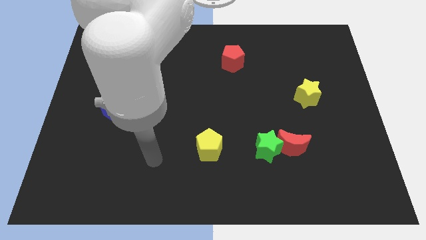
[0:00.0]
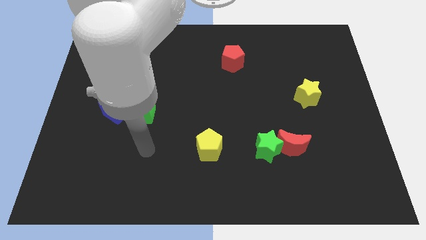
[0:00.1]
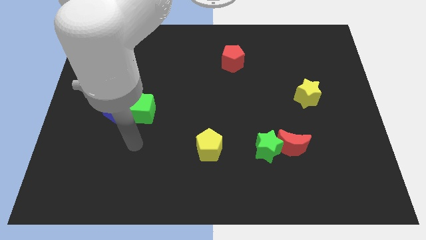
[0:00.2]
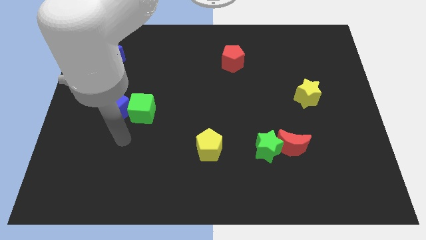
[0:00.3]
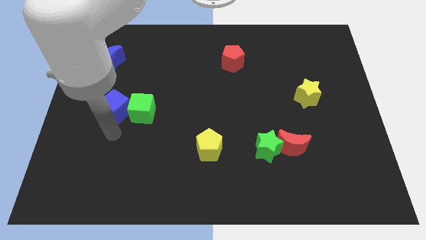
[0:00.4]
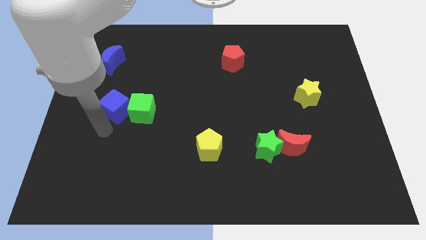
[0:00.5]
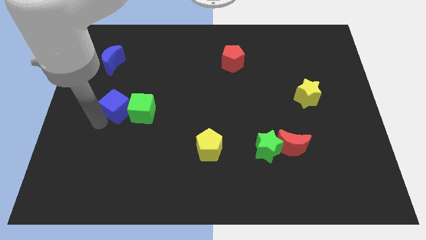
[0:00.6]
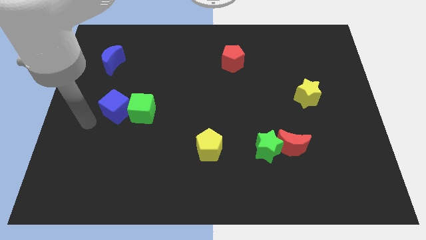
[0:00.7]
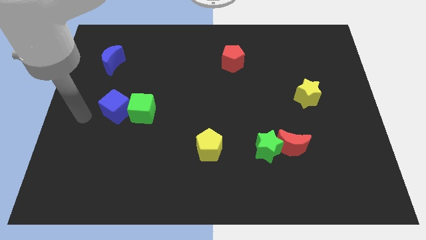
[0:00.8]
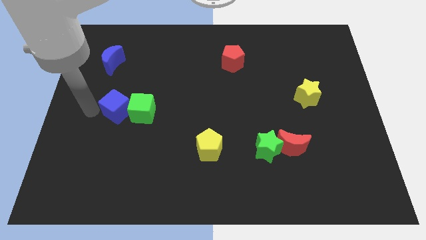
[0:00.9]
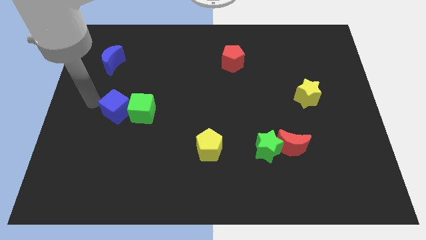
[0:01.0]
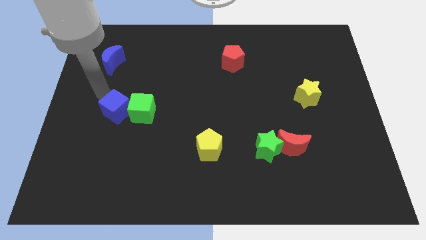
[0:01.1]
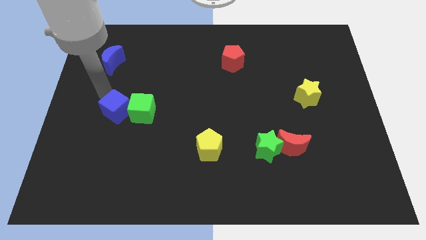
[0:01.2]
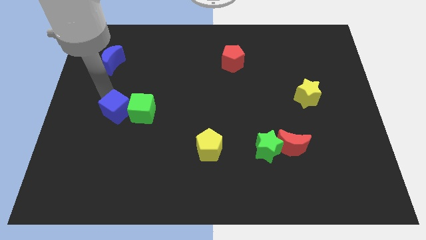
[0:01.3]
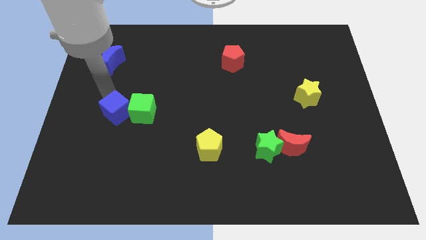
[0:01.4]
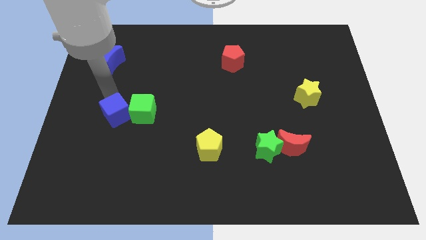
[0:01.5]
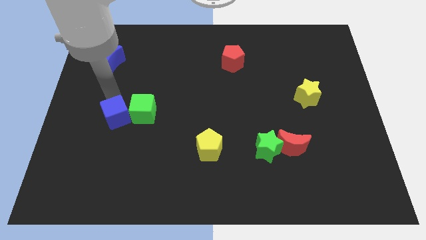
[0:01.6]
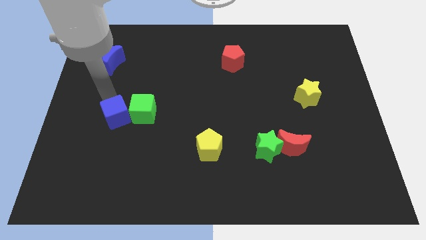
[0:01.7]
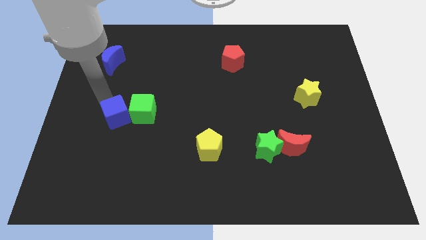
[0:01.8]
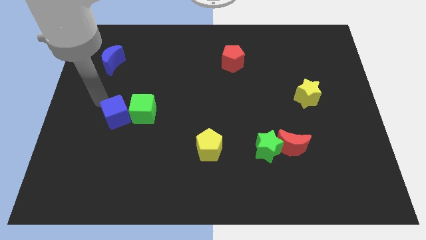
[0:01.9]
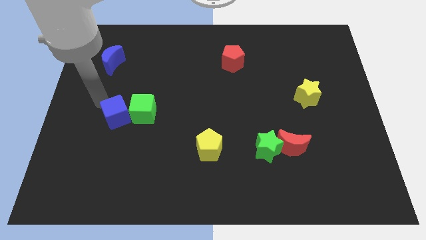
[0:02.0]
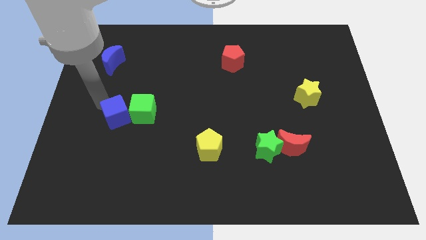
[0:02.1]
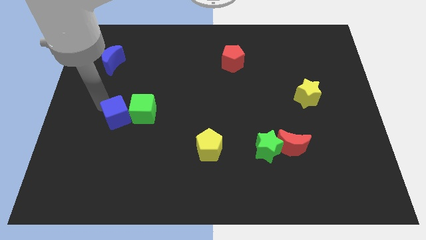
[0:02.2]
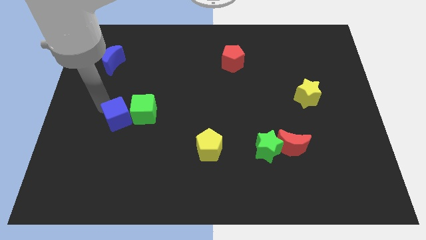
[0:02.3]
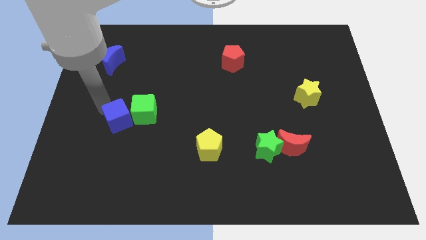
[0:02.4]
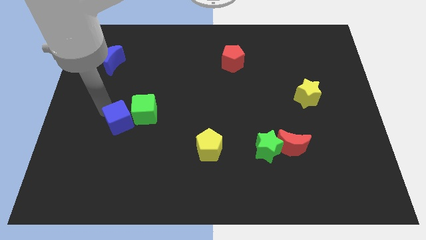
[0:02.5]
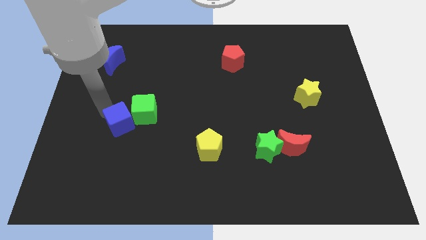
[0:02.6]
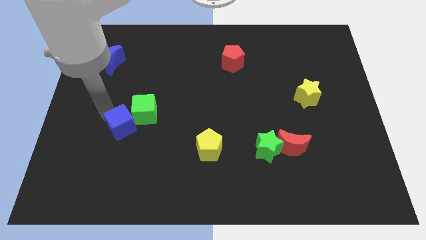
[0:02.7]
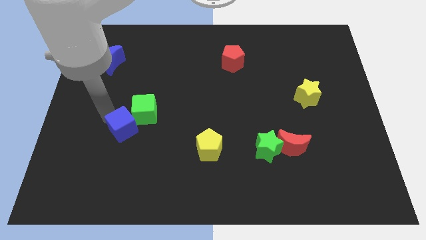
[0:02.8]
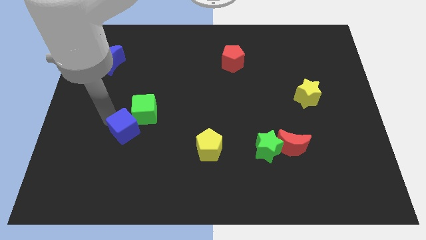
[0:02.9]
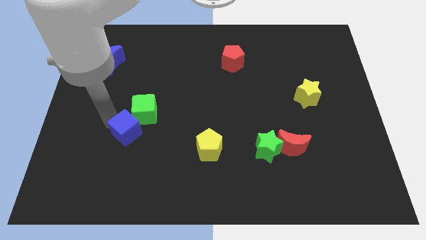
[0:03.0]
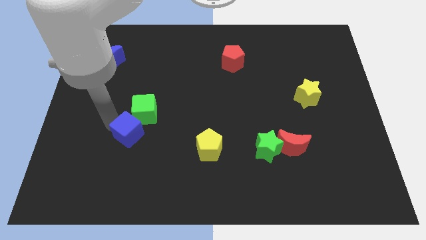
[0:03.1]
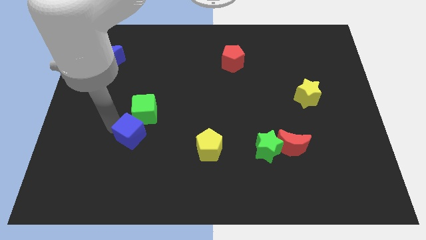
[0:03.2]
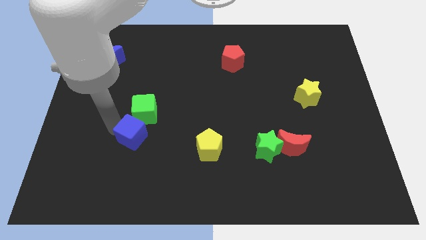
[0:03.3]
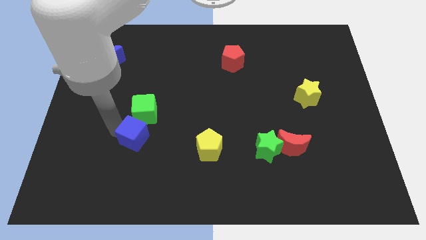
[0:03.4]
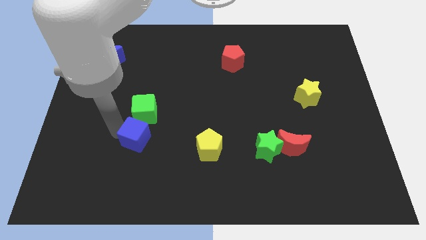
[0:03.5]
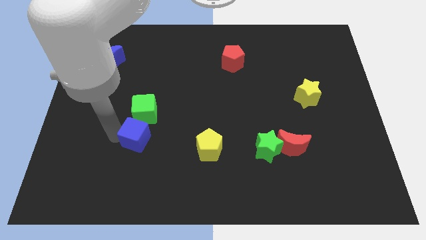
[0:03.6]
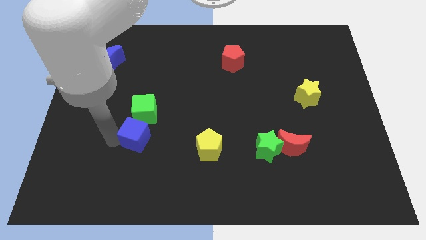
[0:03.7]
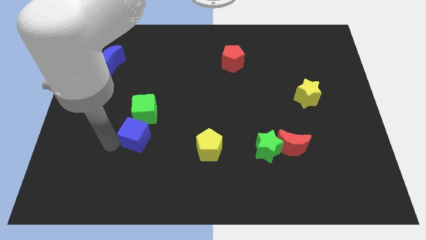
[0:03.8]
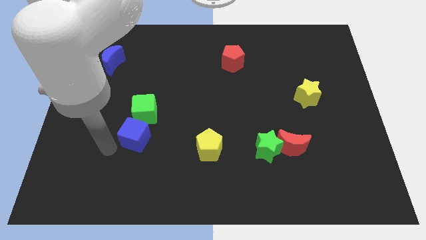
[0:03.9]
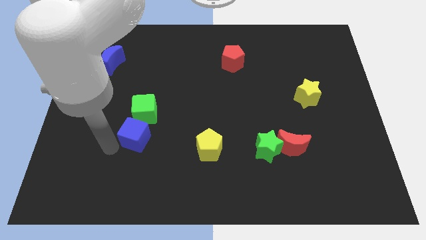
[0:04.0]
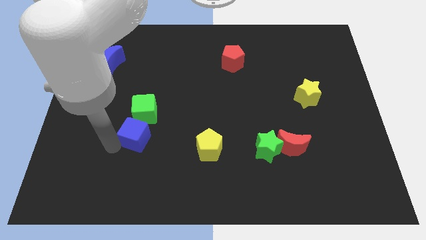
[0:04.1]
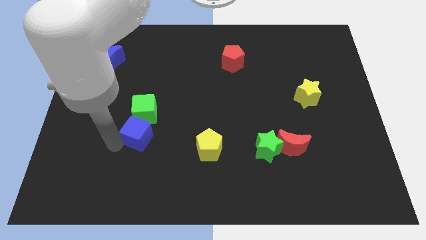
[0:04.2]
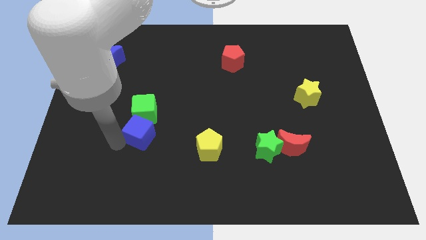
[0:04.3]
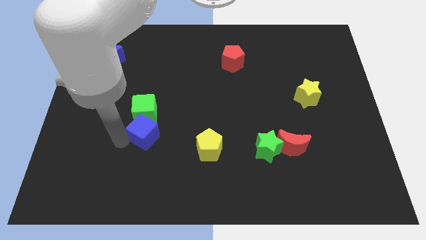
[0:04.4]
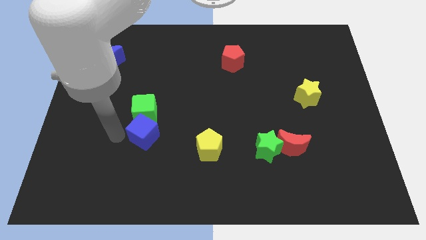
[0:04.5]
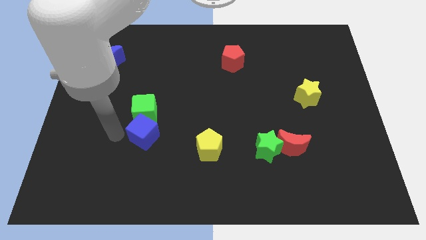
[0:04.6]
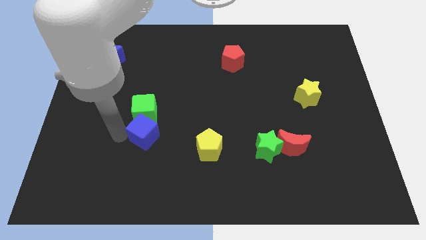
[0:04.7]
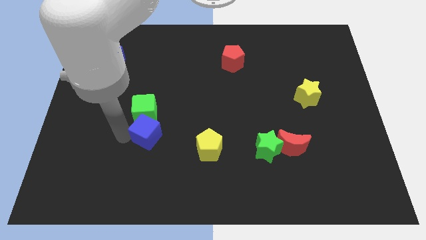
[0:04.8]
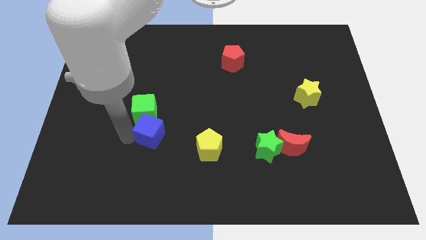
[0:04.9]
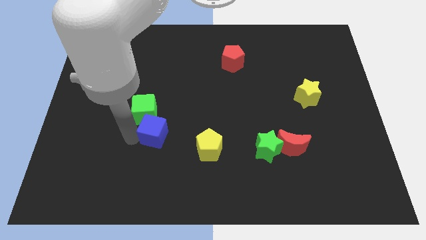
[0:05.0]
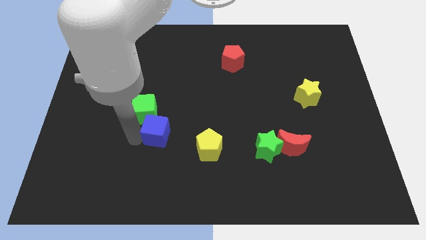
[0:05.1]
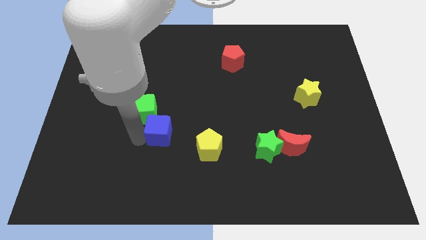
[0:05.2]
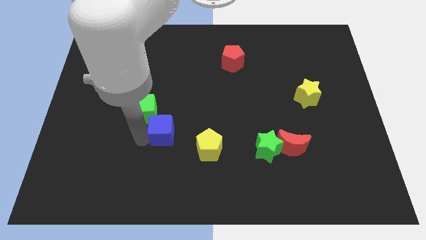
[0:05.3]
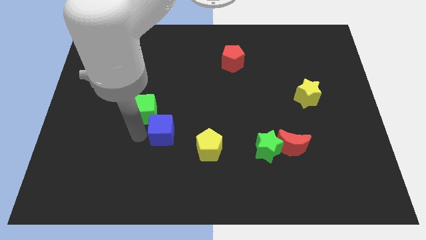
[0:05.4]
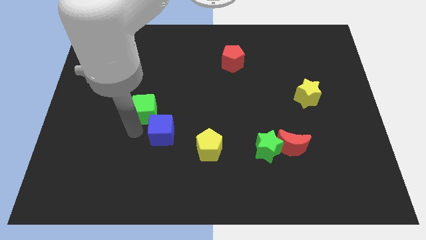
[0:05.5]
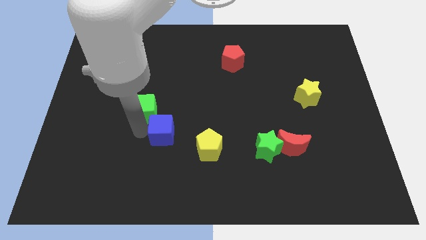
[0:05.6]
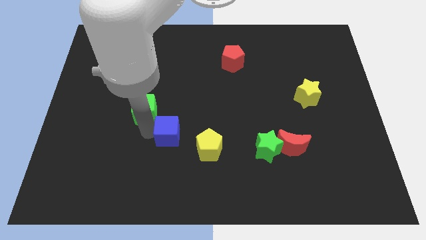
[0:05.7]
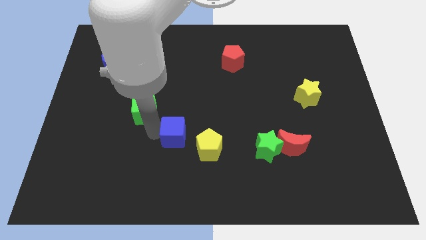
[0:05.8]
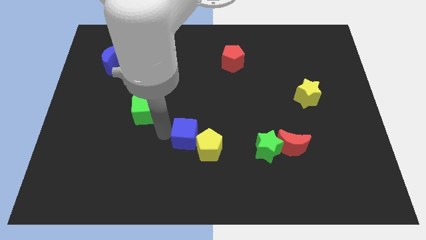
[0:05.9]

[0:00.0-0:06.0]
slide the blue cube towards the yellow pentagon

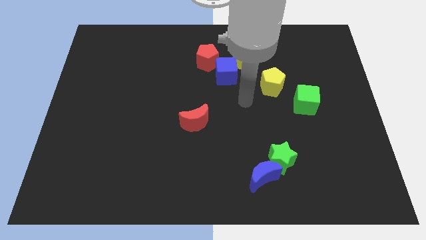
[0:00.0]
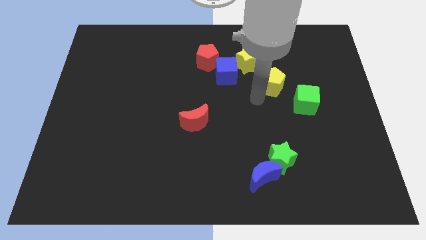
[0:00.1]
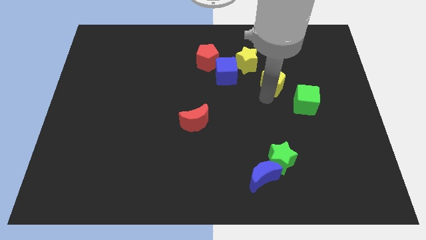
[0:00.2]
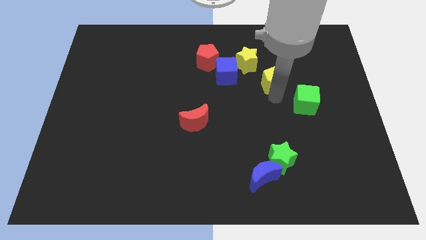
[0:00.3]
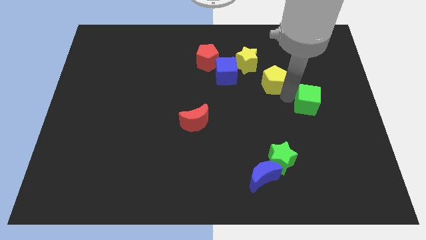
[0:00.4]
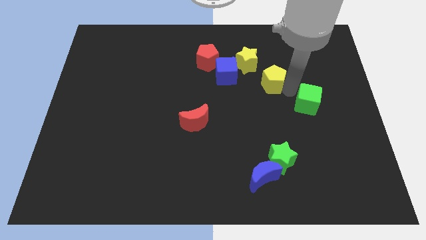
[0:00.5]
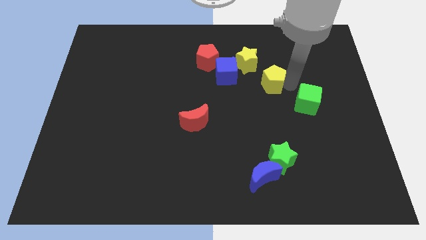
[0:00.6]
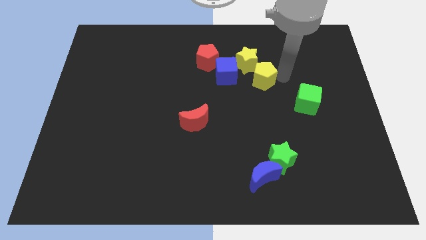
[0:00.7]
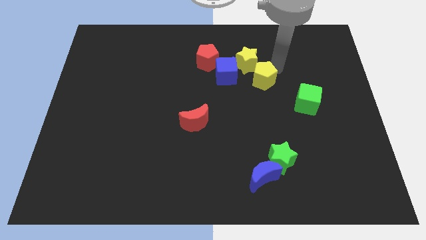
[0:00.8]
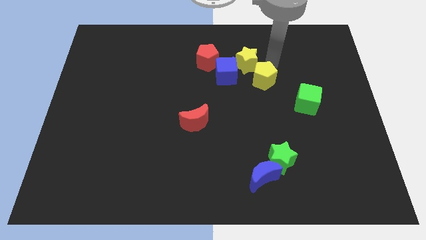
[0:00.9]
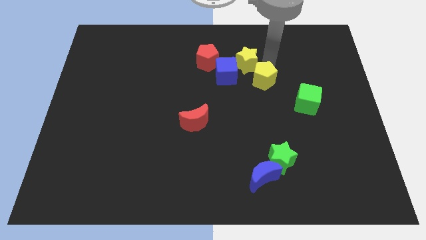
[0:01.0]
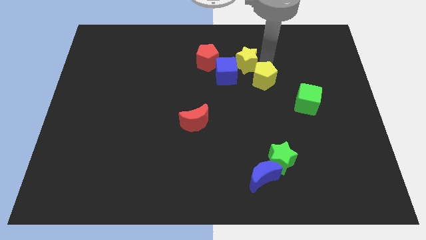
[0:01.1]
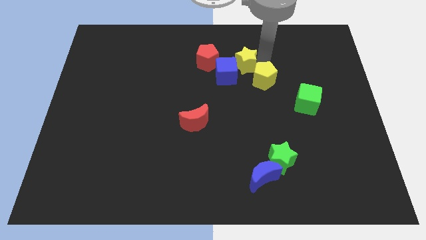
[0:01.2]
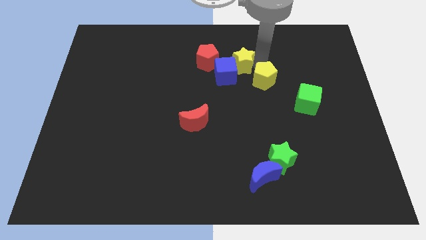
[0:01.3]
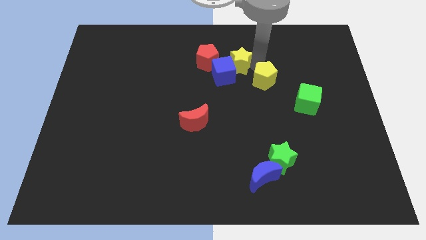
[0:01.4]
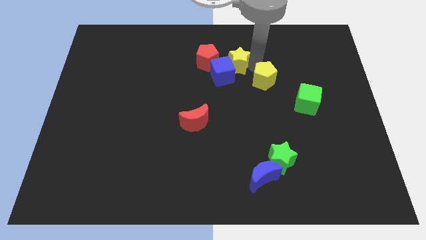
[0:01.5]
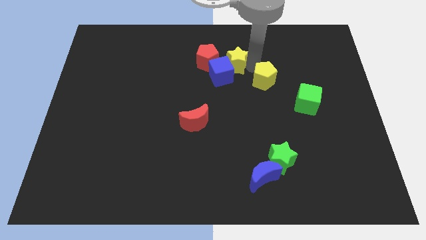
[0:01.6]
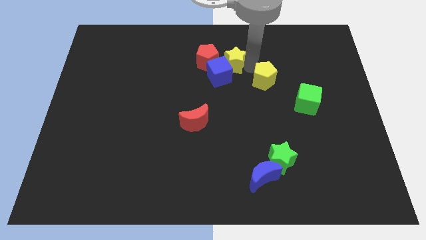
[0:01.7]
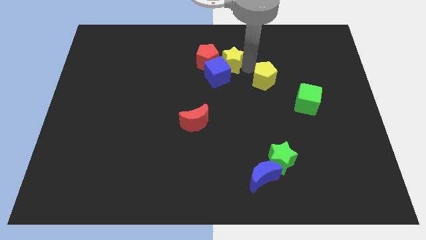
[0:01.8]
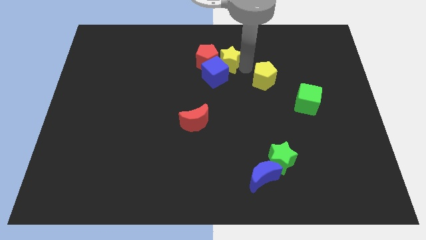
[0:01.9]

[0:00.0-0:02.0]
put the yellow star towards the red pentagon
